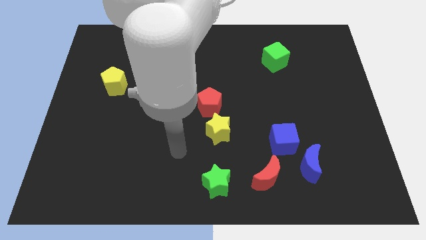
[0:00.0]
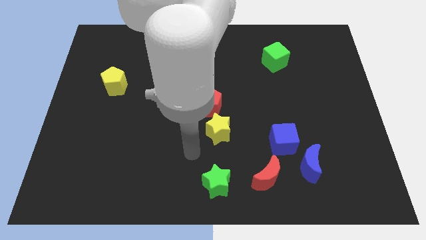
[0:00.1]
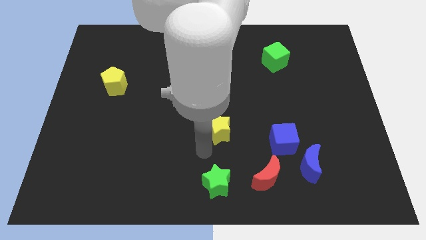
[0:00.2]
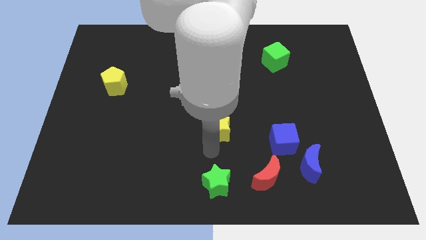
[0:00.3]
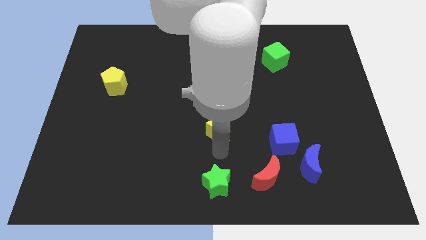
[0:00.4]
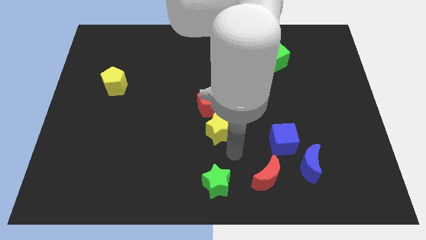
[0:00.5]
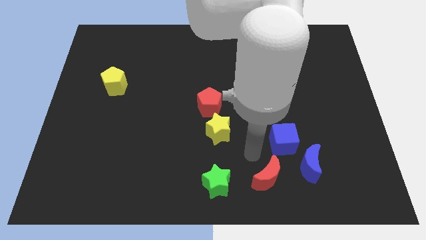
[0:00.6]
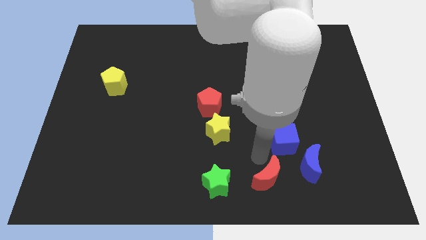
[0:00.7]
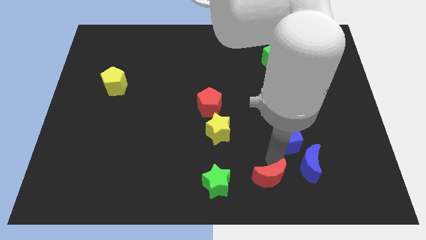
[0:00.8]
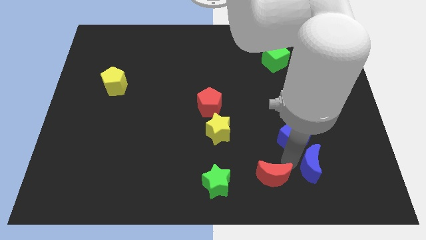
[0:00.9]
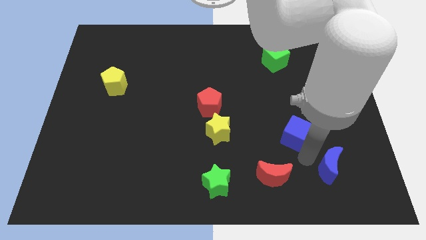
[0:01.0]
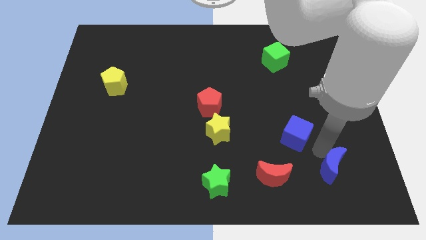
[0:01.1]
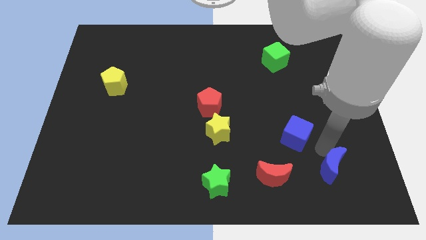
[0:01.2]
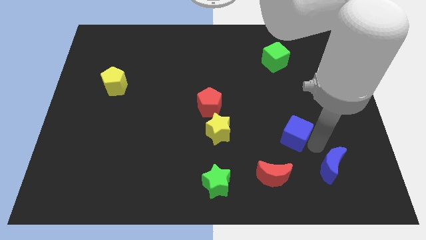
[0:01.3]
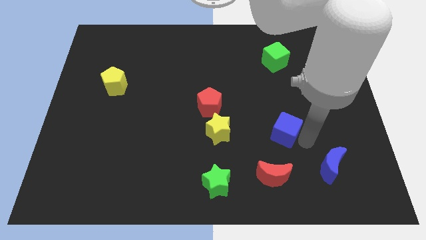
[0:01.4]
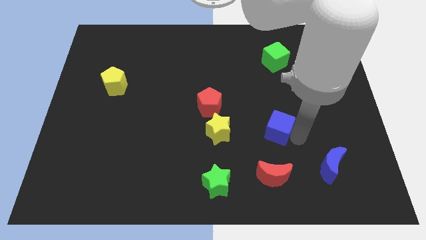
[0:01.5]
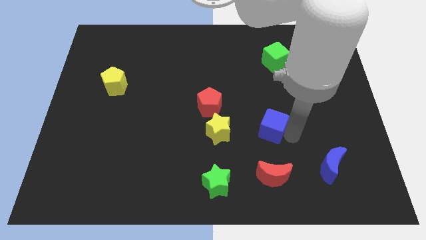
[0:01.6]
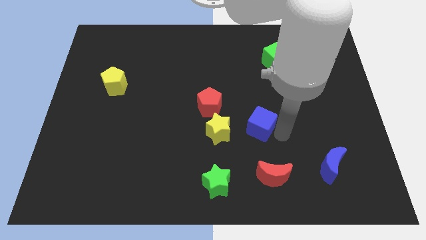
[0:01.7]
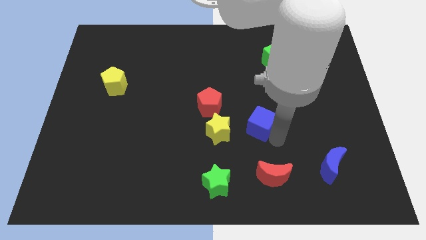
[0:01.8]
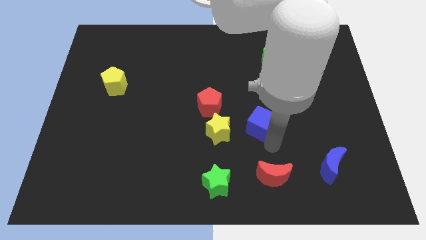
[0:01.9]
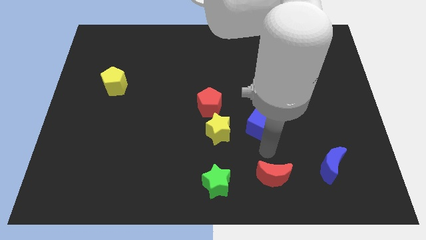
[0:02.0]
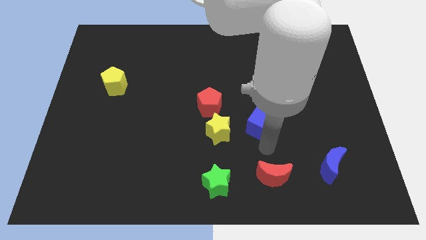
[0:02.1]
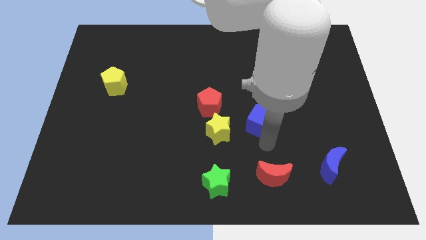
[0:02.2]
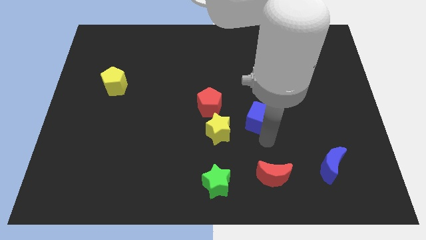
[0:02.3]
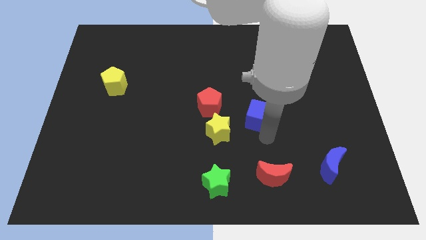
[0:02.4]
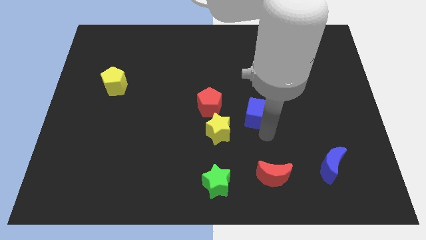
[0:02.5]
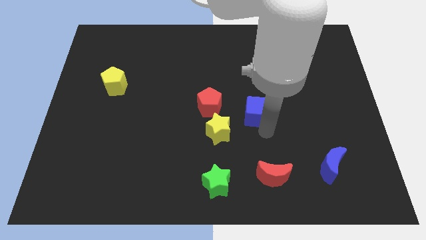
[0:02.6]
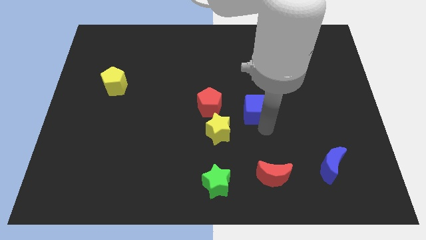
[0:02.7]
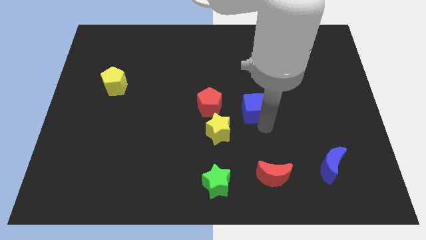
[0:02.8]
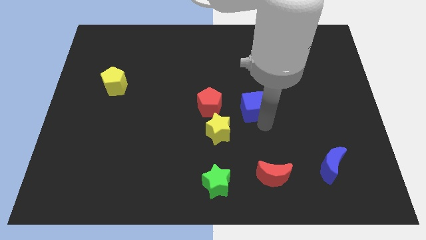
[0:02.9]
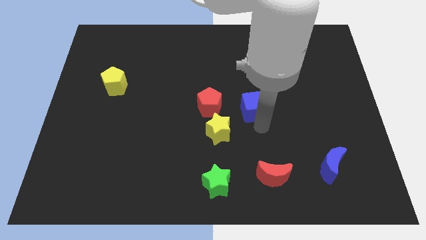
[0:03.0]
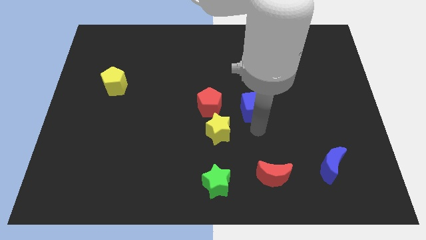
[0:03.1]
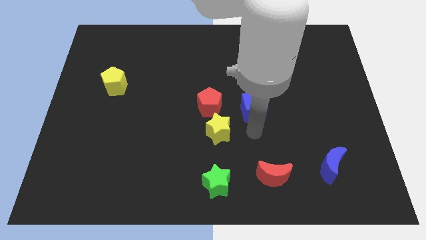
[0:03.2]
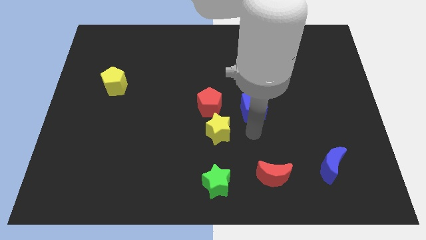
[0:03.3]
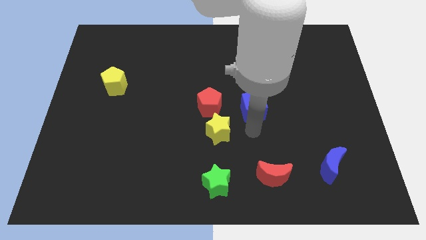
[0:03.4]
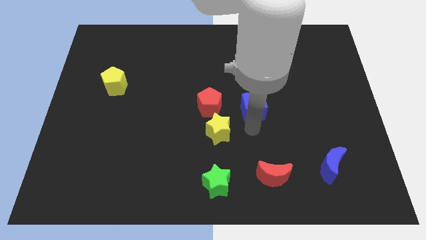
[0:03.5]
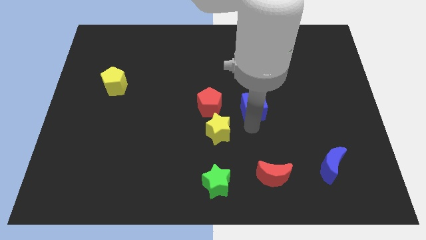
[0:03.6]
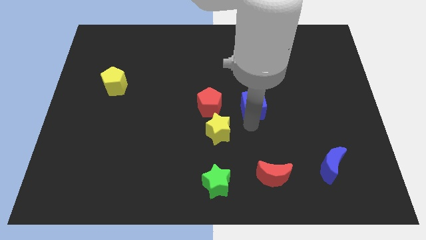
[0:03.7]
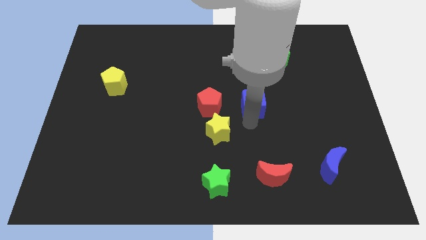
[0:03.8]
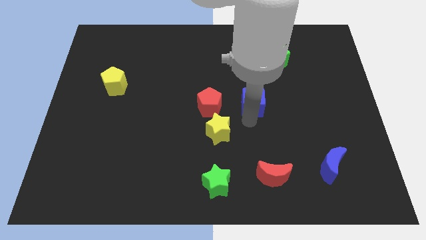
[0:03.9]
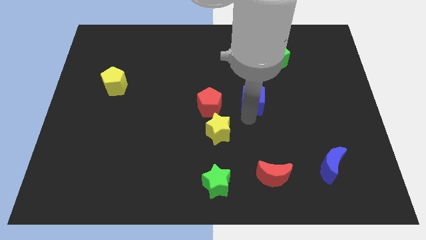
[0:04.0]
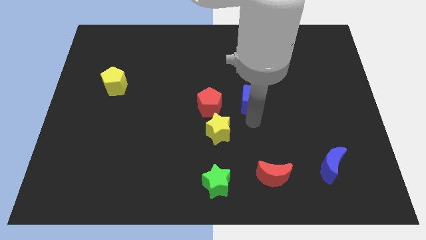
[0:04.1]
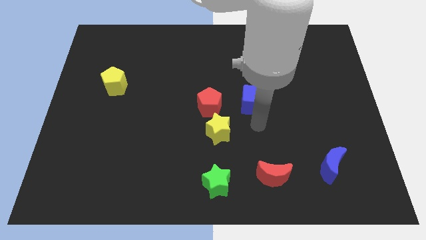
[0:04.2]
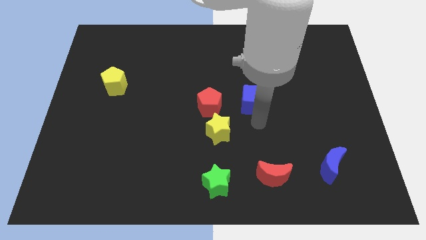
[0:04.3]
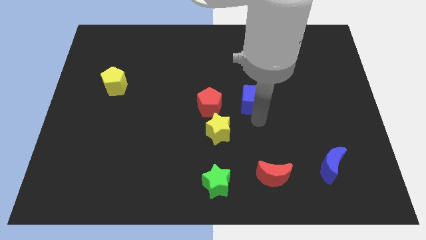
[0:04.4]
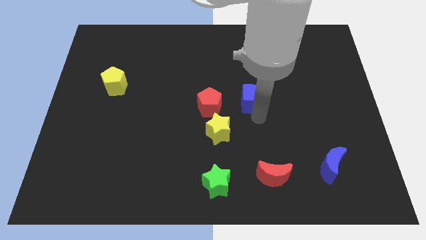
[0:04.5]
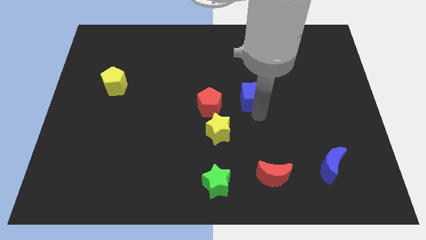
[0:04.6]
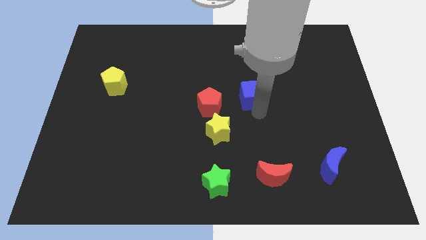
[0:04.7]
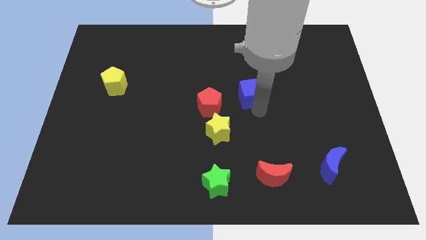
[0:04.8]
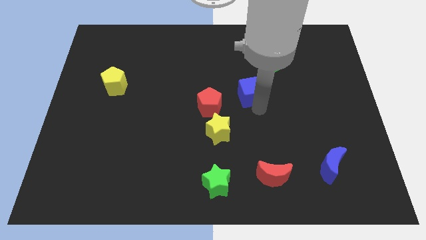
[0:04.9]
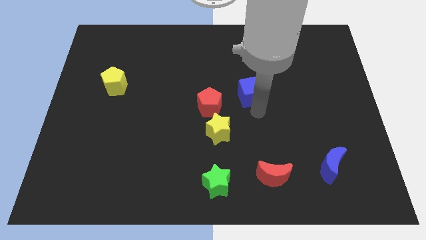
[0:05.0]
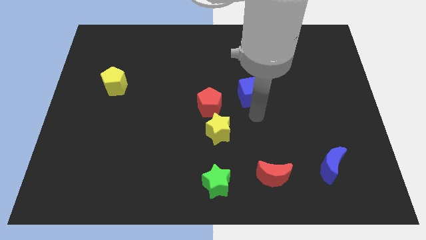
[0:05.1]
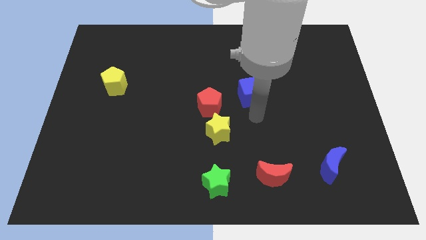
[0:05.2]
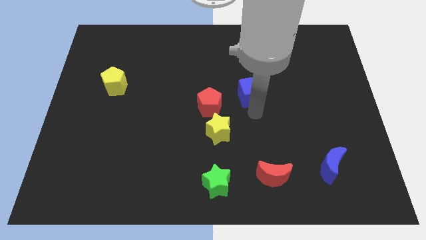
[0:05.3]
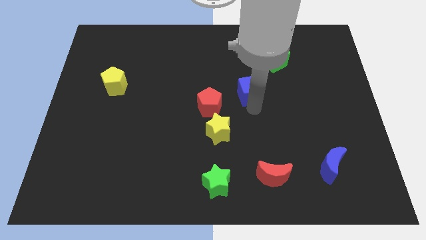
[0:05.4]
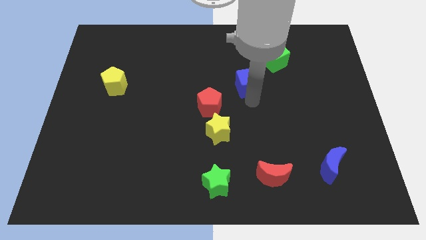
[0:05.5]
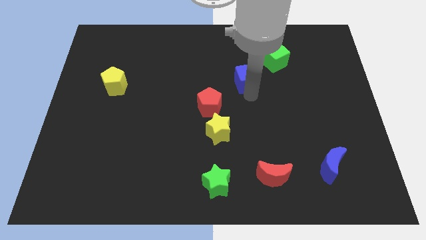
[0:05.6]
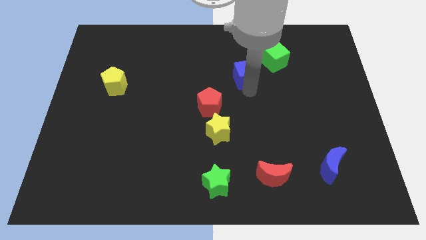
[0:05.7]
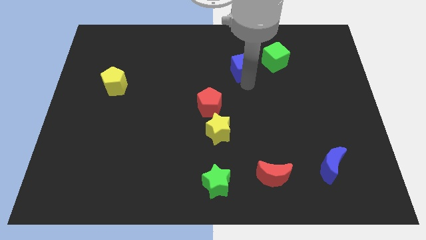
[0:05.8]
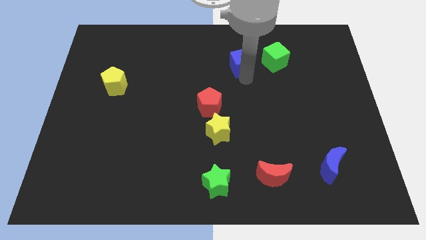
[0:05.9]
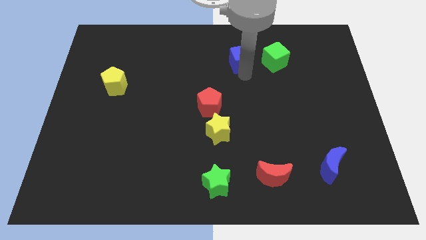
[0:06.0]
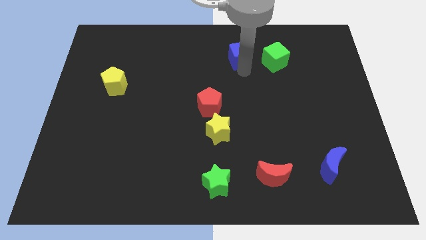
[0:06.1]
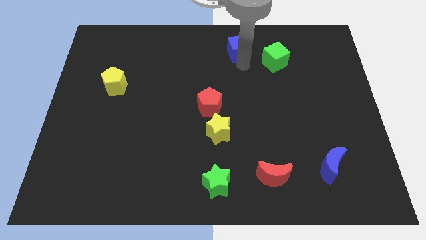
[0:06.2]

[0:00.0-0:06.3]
push the blue cube to the top side

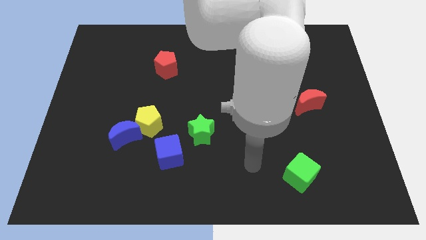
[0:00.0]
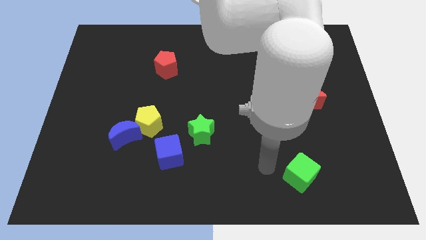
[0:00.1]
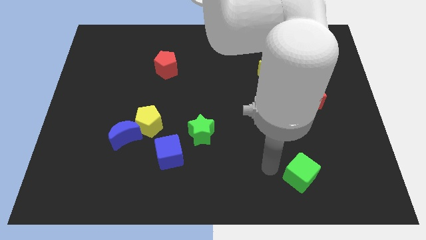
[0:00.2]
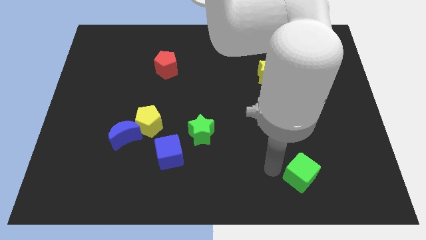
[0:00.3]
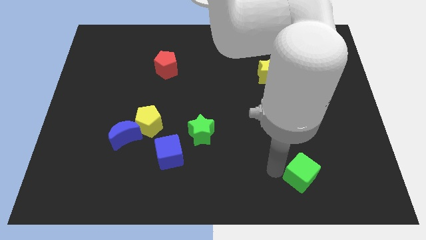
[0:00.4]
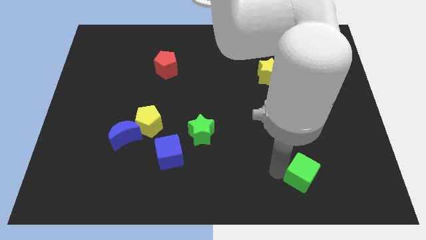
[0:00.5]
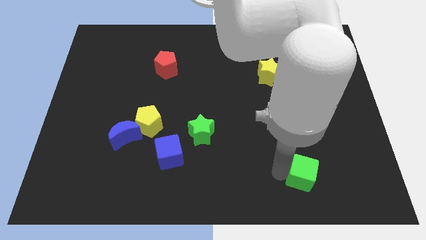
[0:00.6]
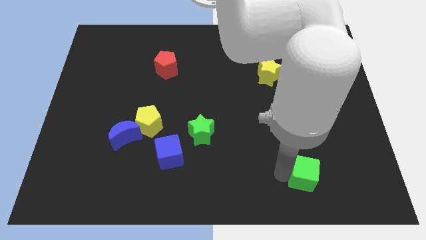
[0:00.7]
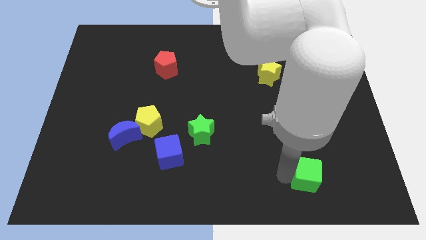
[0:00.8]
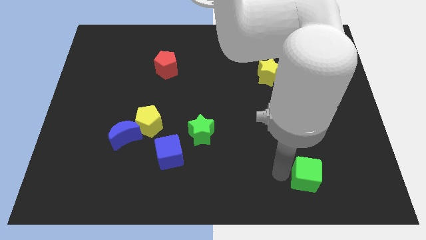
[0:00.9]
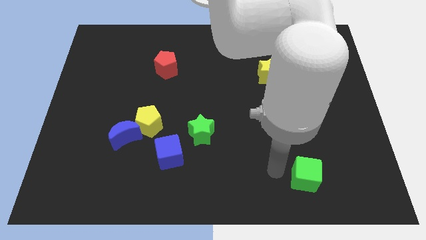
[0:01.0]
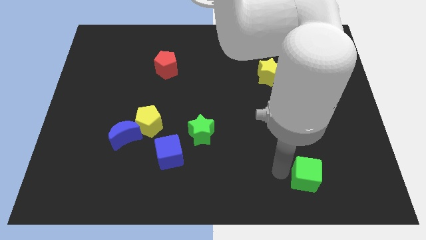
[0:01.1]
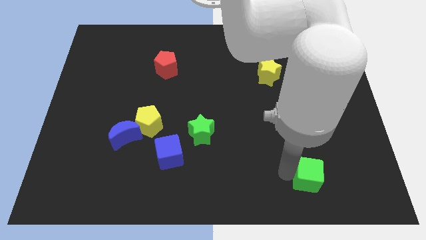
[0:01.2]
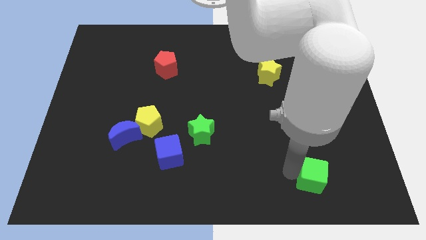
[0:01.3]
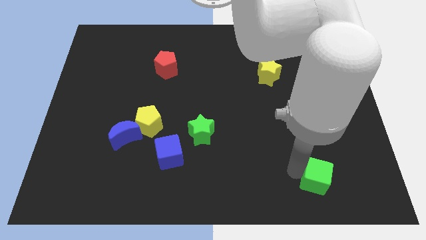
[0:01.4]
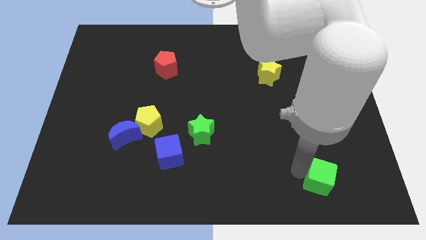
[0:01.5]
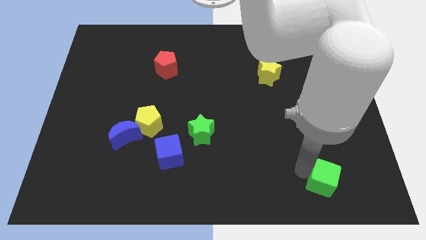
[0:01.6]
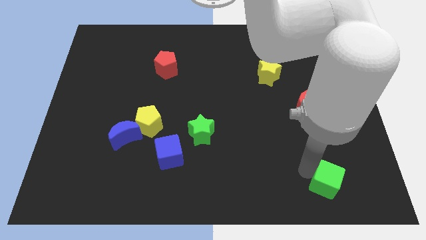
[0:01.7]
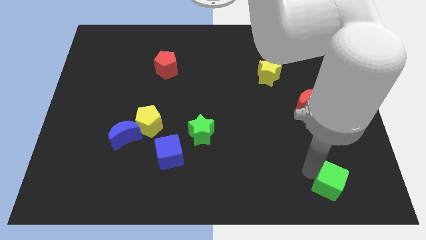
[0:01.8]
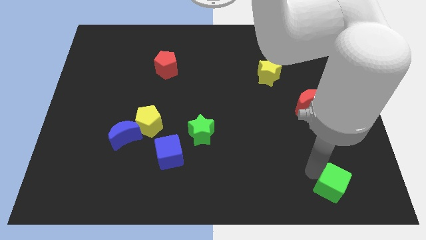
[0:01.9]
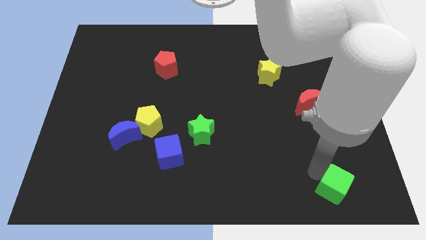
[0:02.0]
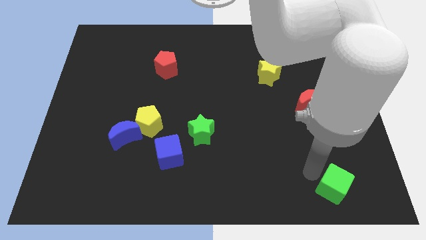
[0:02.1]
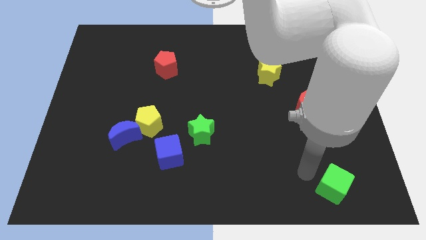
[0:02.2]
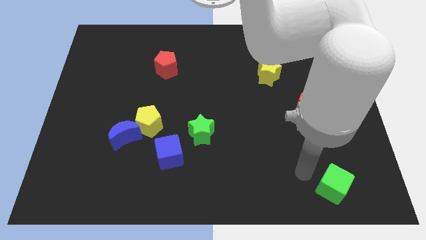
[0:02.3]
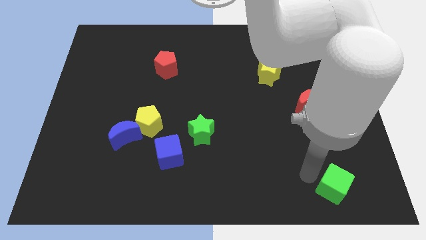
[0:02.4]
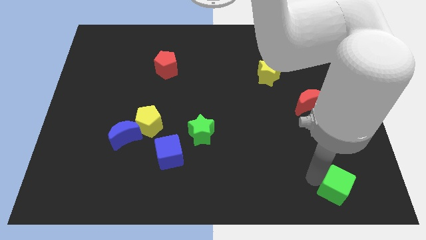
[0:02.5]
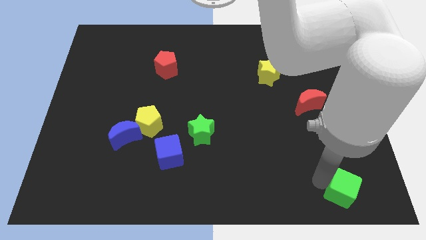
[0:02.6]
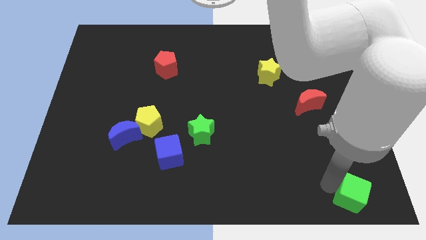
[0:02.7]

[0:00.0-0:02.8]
move the green cube to the bottom right of the board
